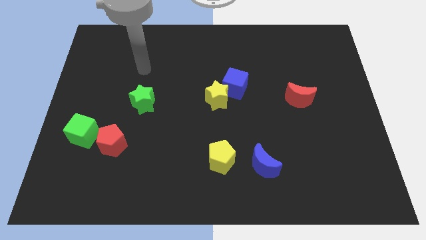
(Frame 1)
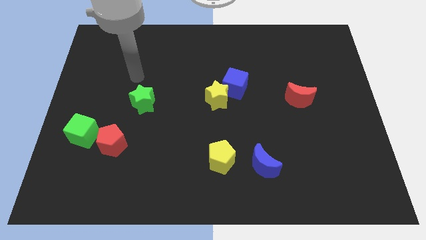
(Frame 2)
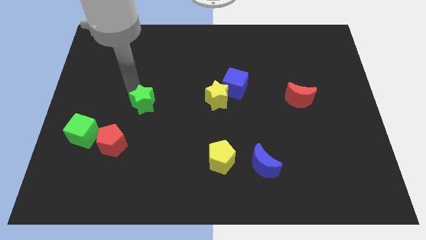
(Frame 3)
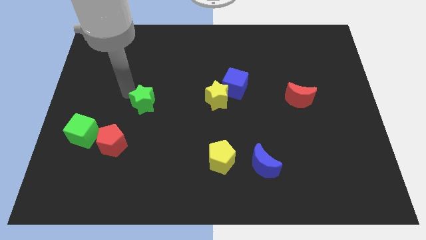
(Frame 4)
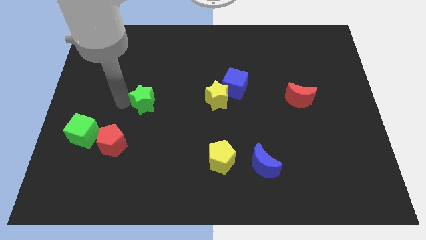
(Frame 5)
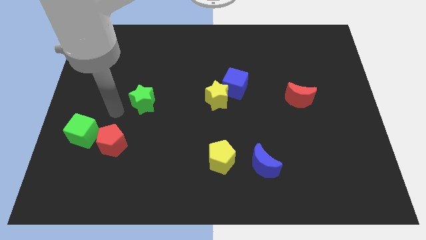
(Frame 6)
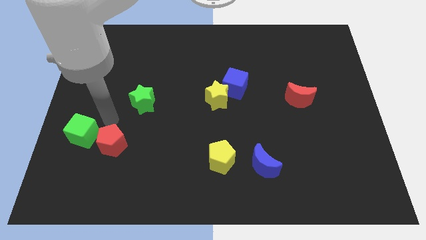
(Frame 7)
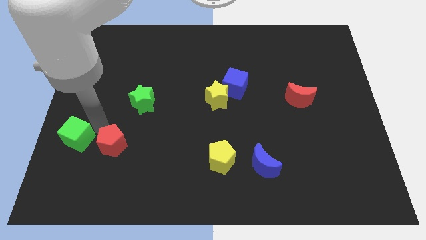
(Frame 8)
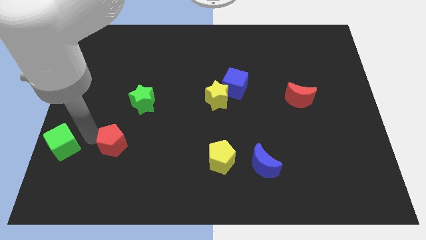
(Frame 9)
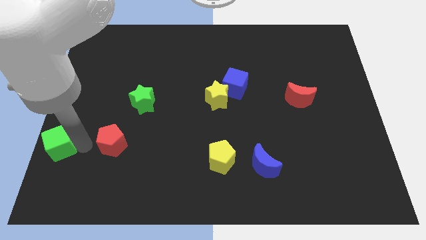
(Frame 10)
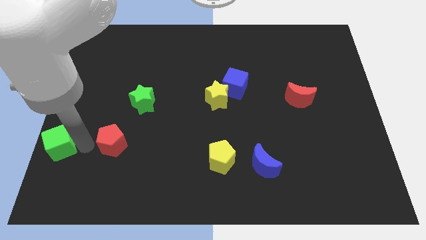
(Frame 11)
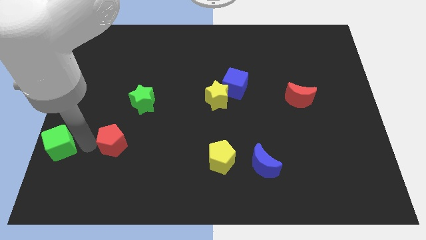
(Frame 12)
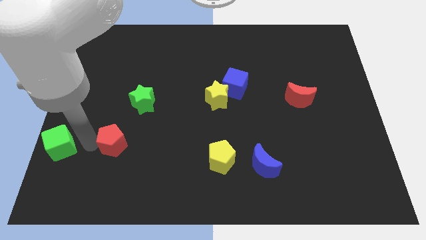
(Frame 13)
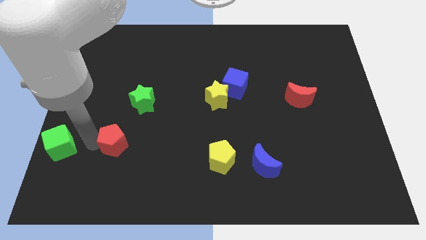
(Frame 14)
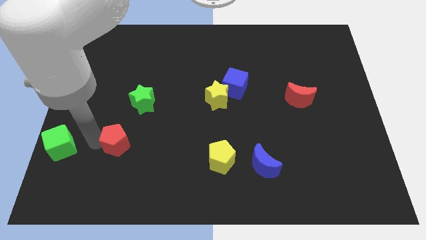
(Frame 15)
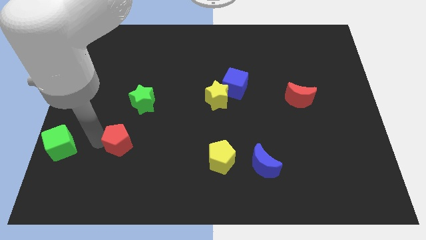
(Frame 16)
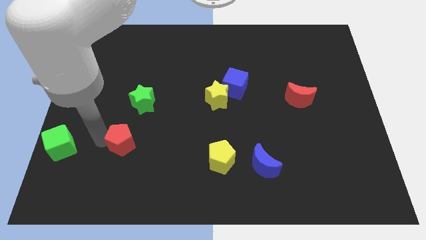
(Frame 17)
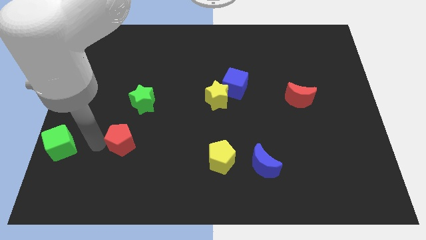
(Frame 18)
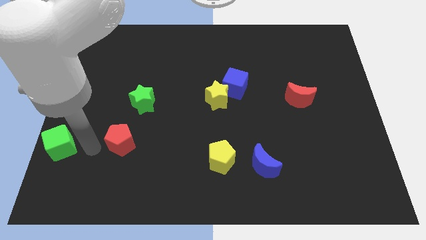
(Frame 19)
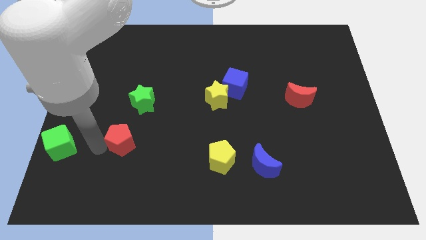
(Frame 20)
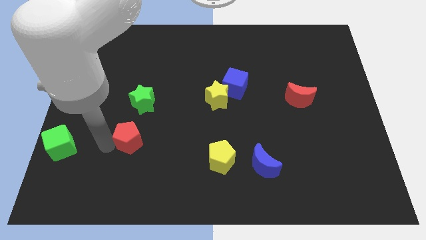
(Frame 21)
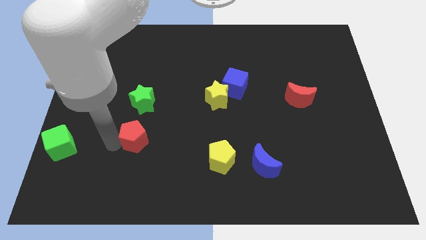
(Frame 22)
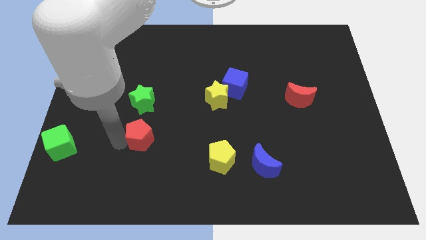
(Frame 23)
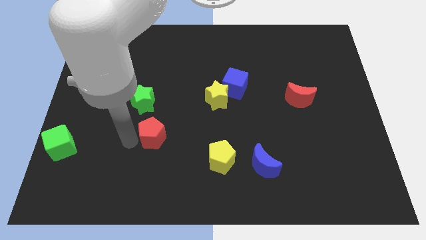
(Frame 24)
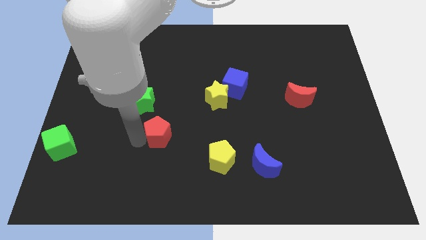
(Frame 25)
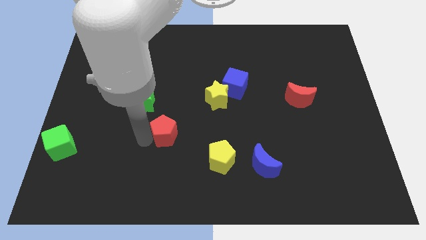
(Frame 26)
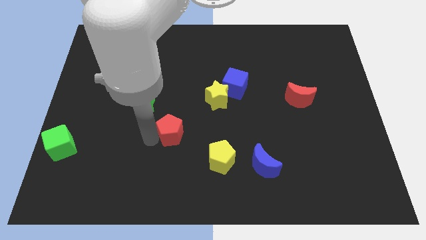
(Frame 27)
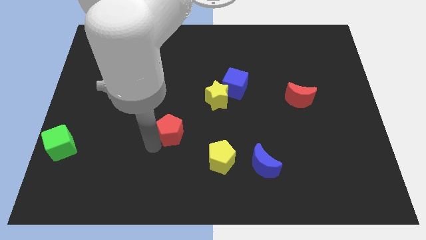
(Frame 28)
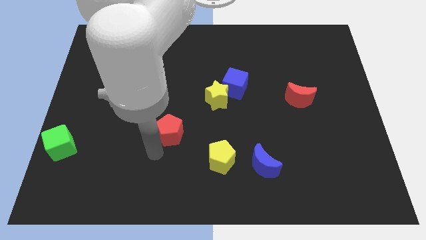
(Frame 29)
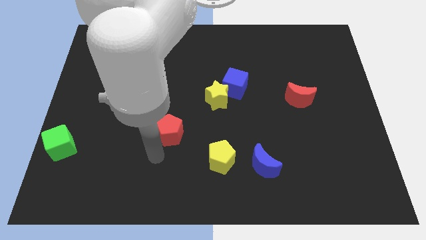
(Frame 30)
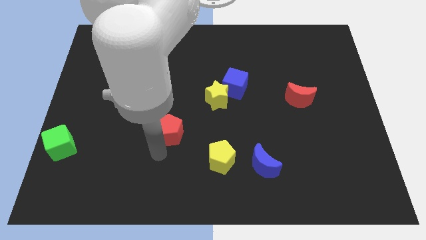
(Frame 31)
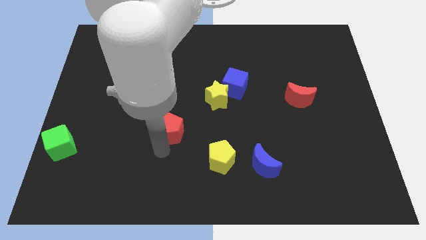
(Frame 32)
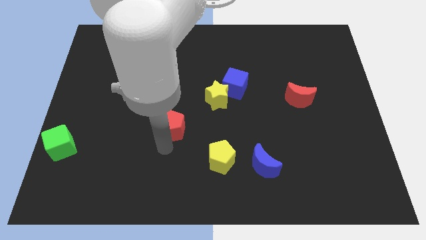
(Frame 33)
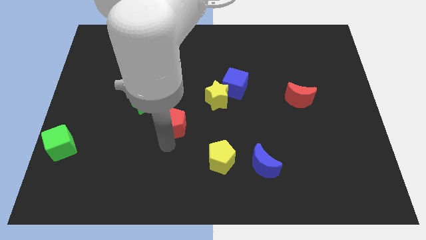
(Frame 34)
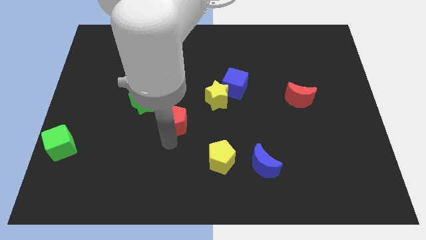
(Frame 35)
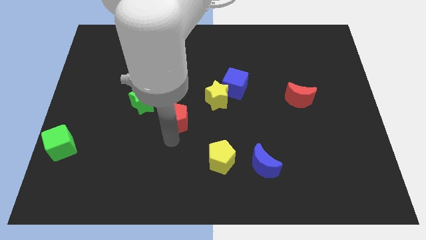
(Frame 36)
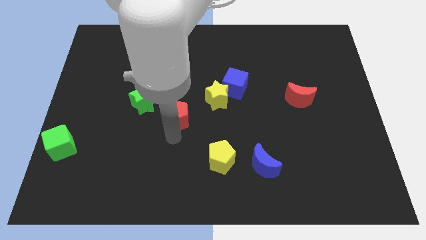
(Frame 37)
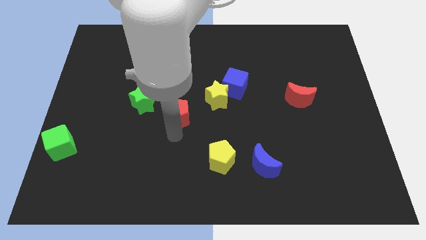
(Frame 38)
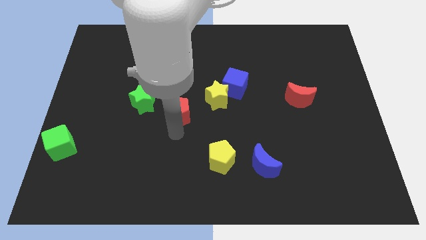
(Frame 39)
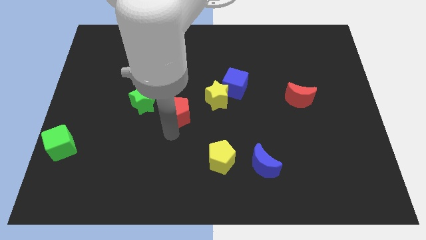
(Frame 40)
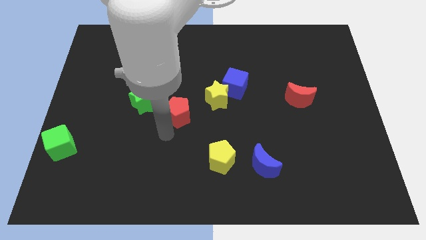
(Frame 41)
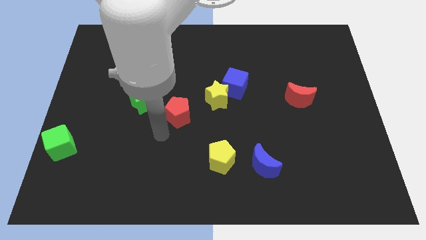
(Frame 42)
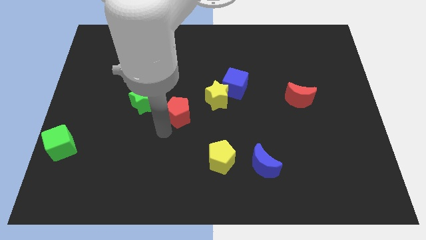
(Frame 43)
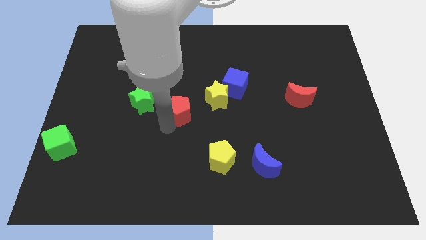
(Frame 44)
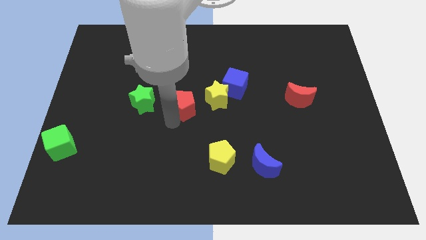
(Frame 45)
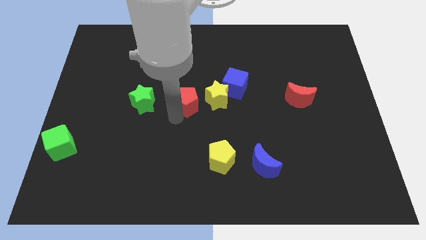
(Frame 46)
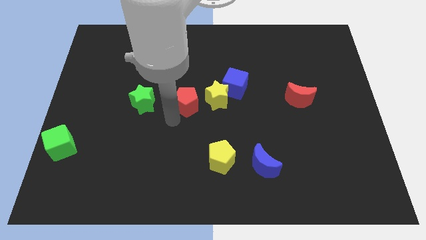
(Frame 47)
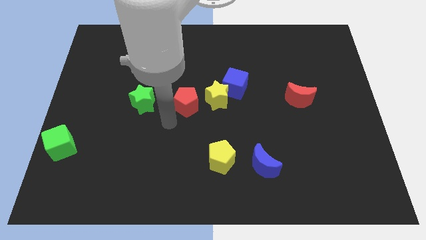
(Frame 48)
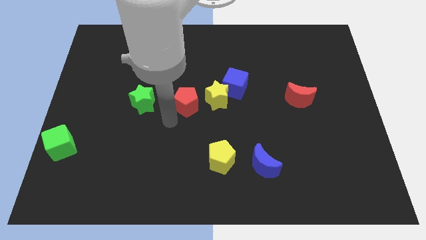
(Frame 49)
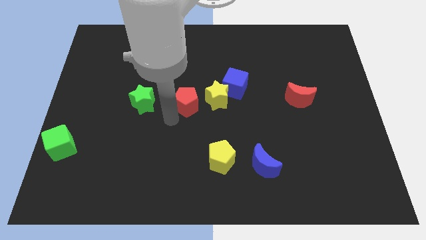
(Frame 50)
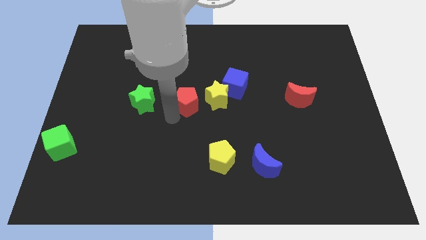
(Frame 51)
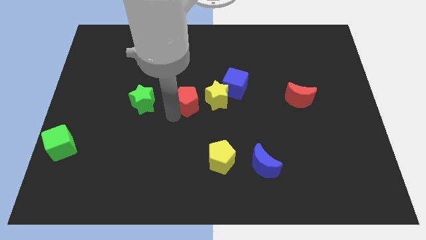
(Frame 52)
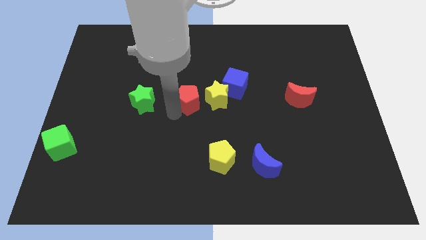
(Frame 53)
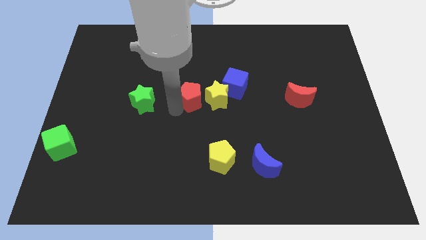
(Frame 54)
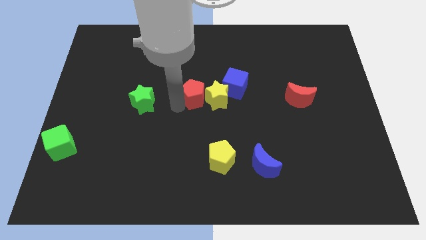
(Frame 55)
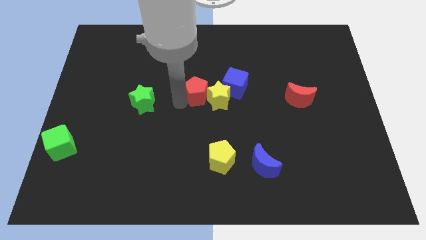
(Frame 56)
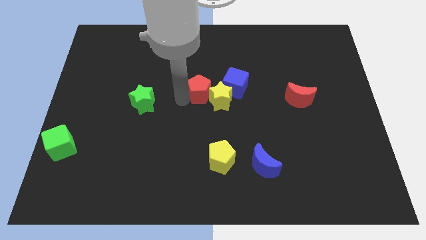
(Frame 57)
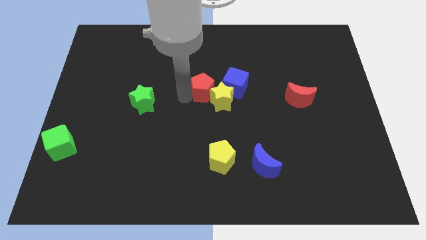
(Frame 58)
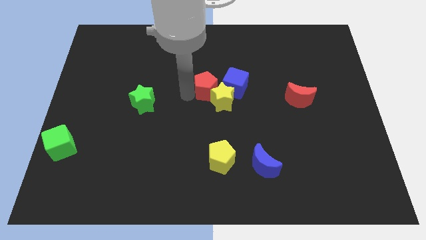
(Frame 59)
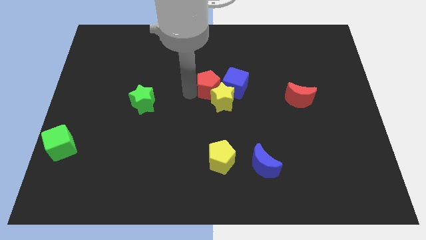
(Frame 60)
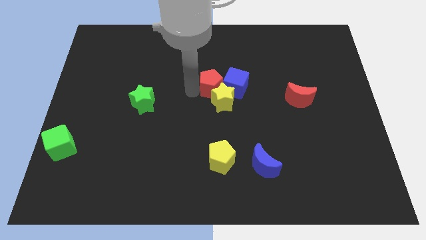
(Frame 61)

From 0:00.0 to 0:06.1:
push the red pentagon next to the blue cube

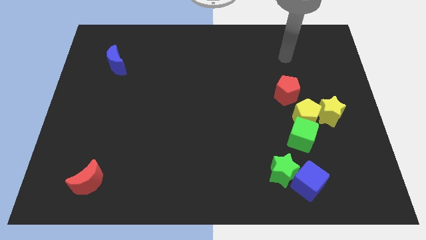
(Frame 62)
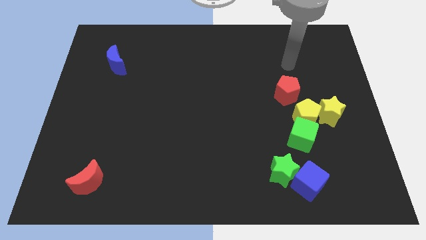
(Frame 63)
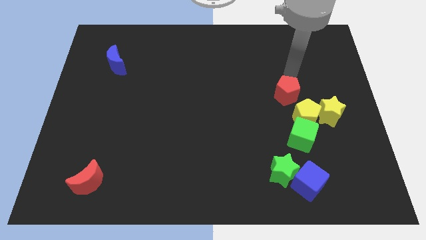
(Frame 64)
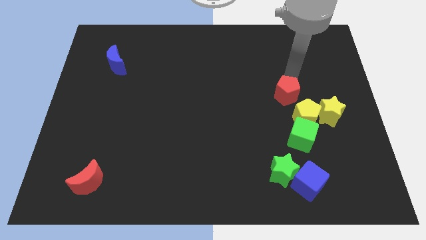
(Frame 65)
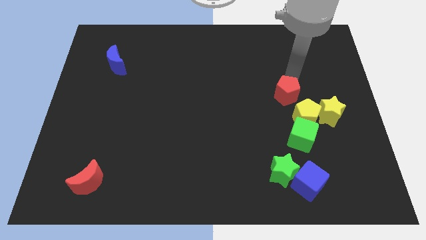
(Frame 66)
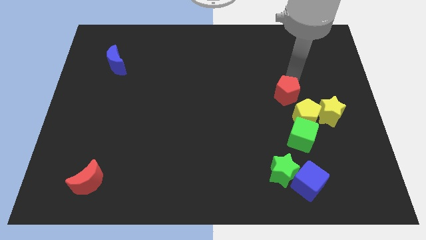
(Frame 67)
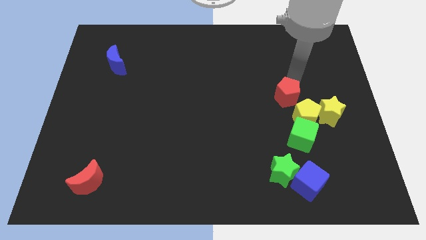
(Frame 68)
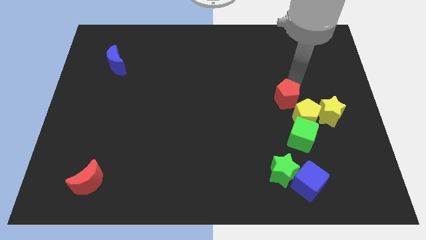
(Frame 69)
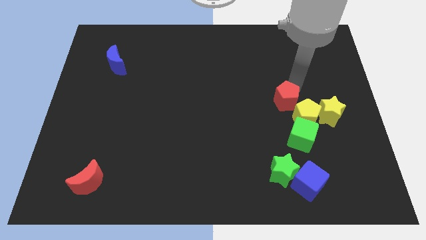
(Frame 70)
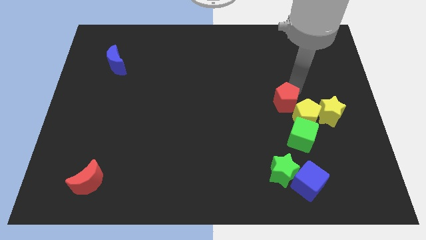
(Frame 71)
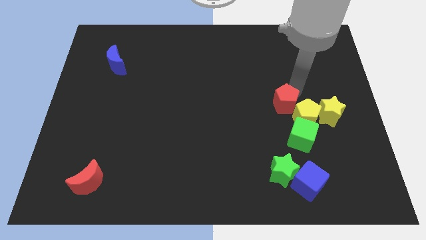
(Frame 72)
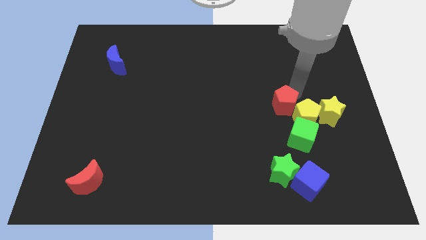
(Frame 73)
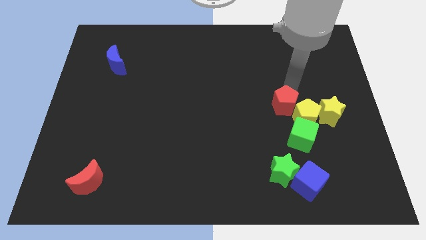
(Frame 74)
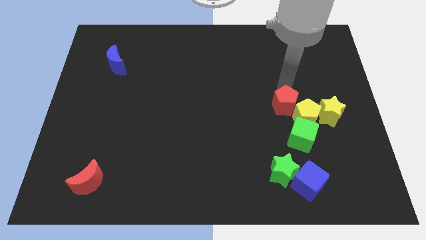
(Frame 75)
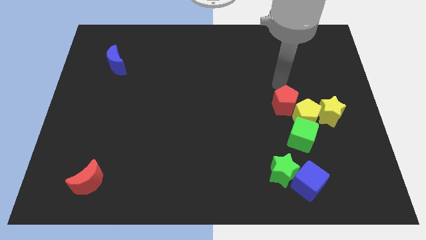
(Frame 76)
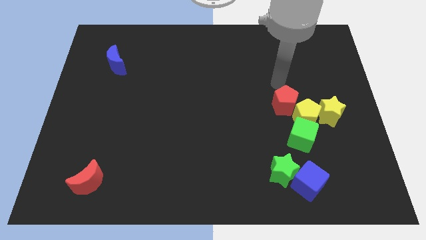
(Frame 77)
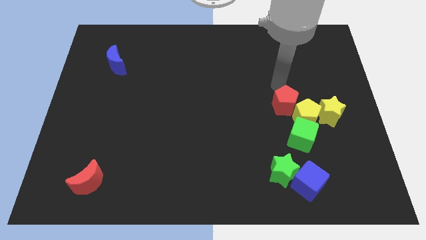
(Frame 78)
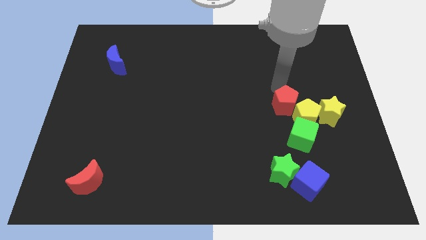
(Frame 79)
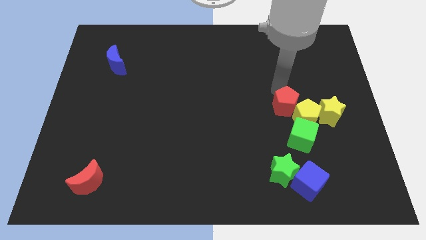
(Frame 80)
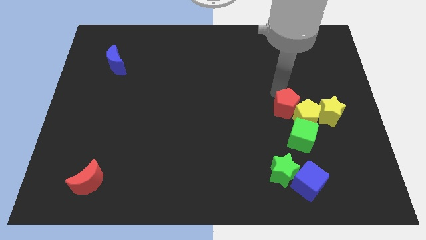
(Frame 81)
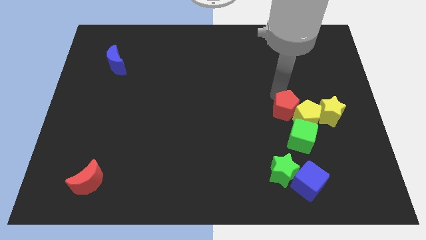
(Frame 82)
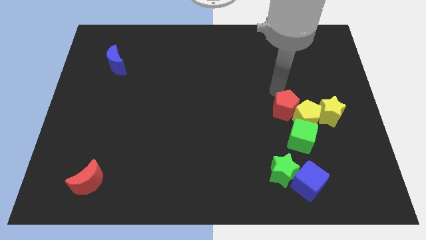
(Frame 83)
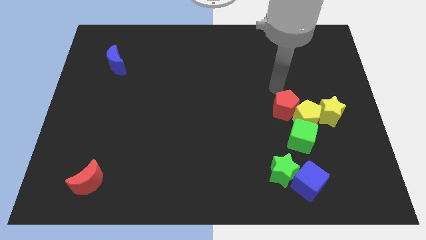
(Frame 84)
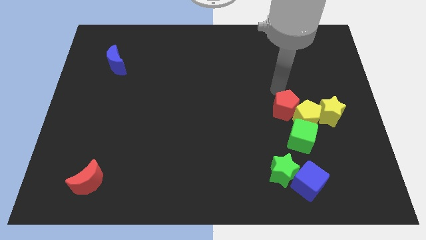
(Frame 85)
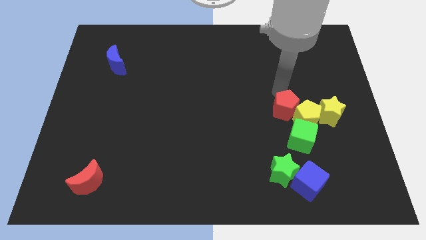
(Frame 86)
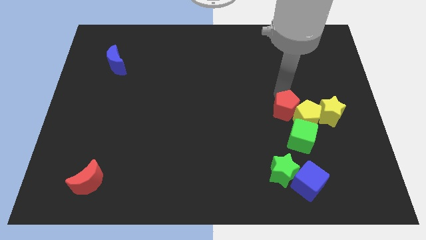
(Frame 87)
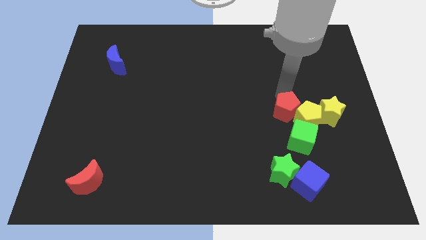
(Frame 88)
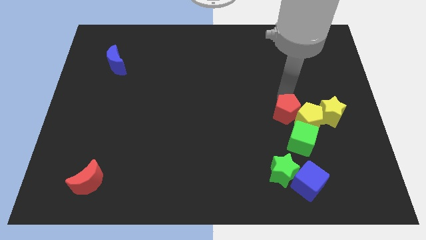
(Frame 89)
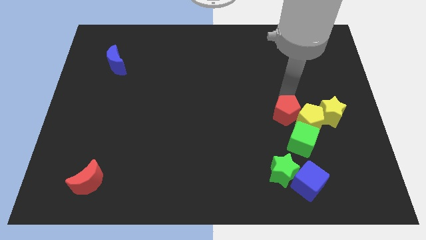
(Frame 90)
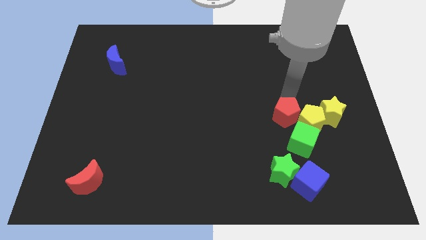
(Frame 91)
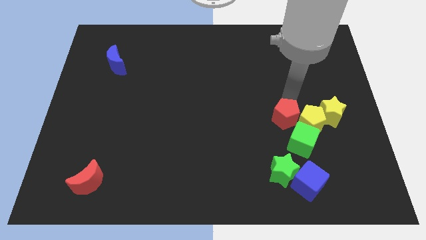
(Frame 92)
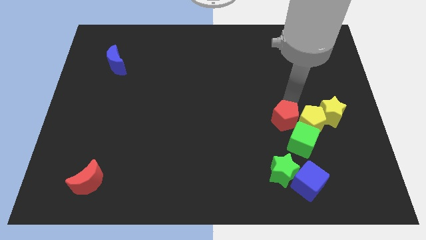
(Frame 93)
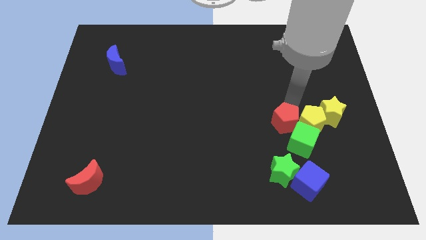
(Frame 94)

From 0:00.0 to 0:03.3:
push the red pentagon close to the green cube
